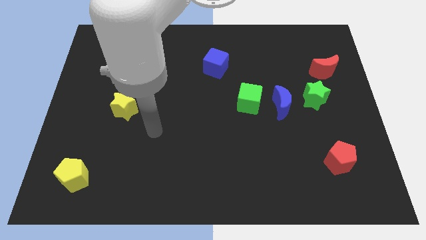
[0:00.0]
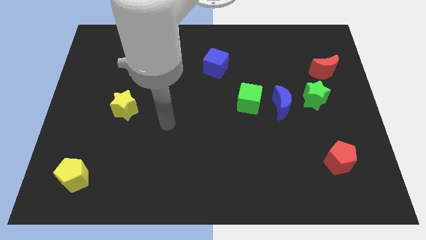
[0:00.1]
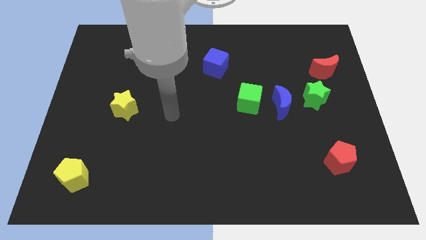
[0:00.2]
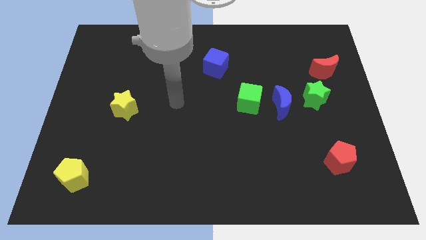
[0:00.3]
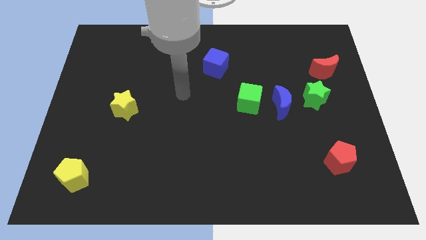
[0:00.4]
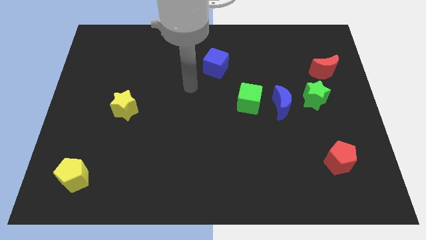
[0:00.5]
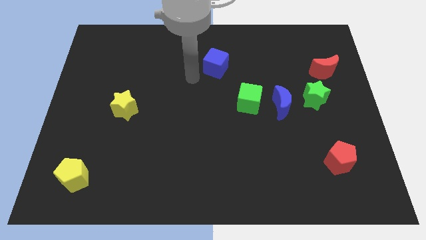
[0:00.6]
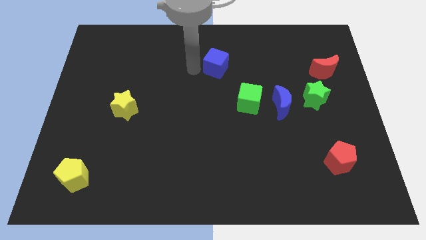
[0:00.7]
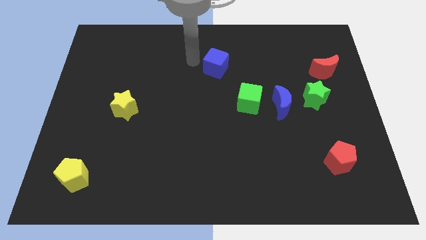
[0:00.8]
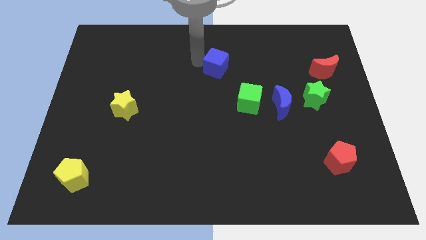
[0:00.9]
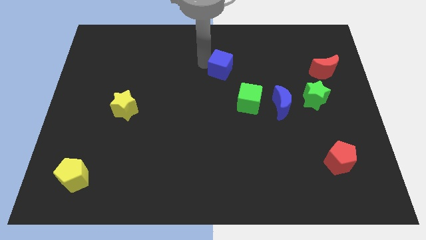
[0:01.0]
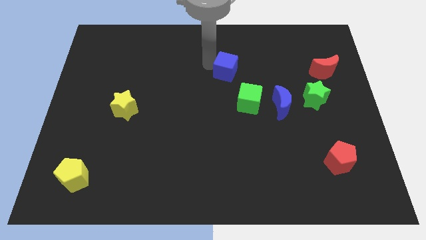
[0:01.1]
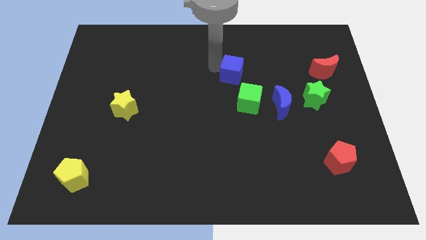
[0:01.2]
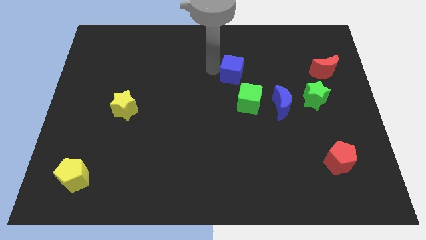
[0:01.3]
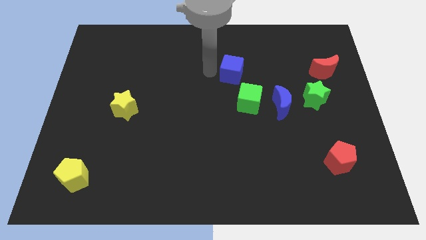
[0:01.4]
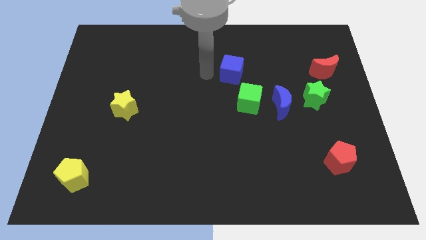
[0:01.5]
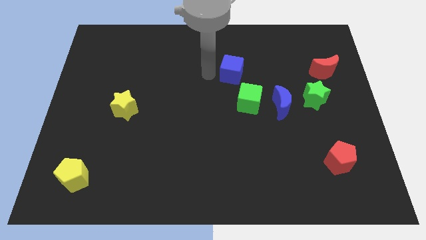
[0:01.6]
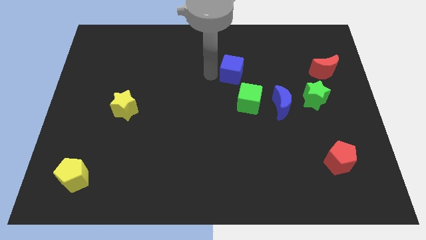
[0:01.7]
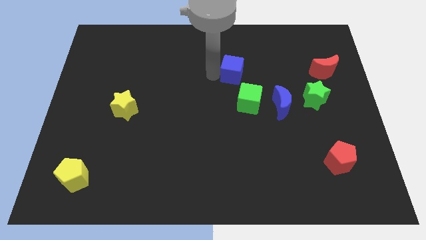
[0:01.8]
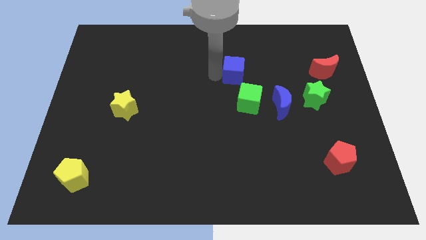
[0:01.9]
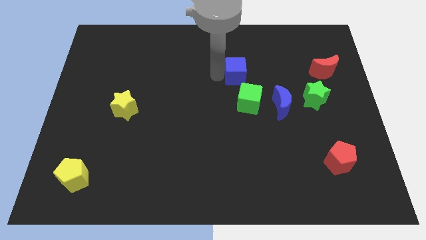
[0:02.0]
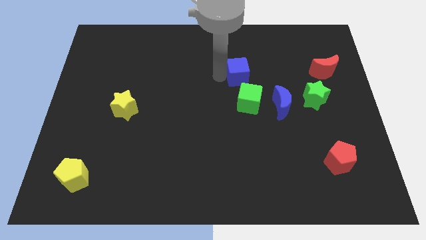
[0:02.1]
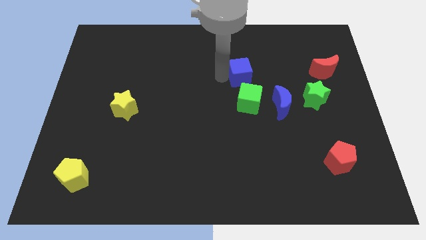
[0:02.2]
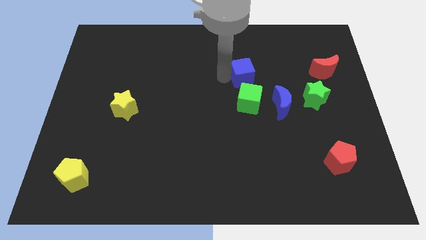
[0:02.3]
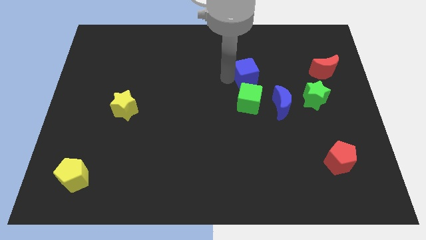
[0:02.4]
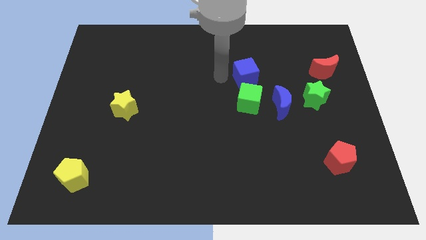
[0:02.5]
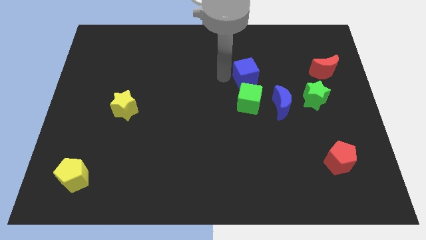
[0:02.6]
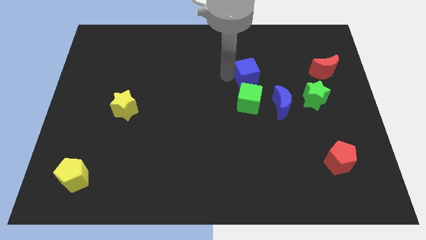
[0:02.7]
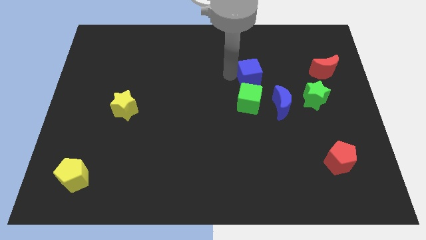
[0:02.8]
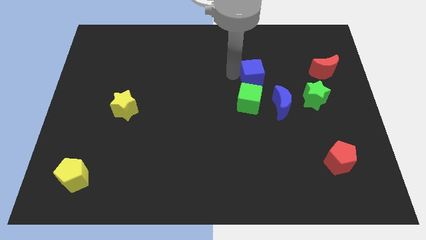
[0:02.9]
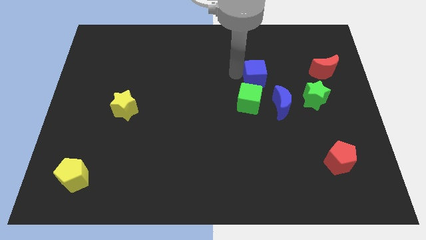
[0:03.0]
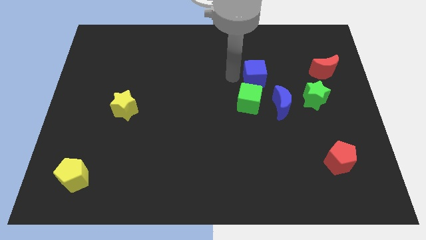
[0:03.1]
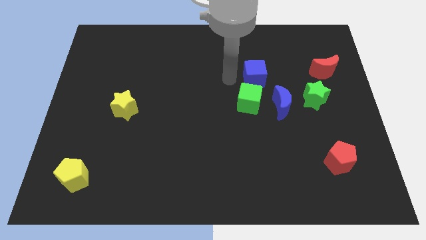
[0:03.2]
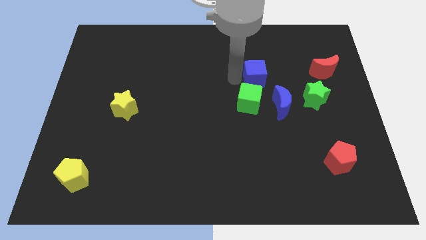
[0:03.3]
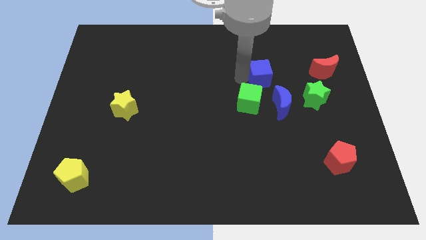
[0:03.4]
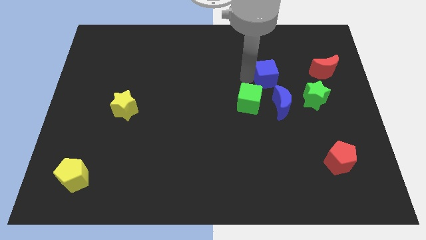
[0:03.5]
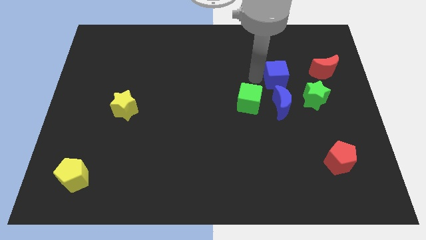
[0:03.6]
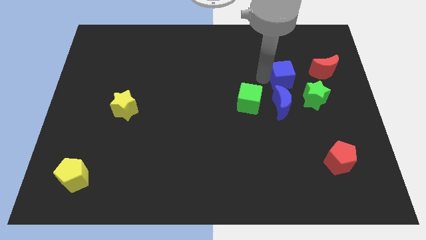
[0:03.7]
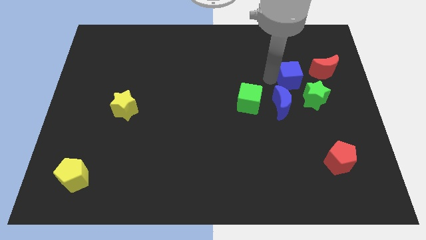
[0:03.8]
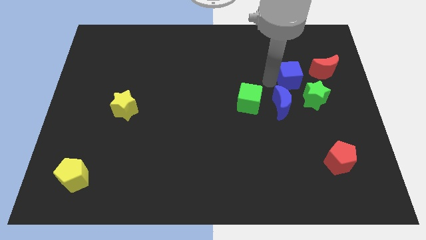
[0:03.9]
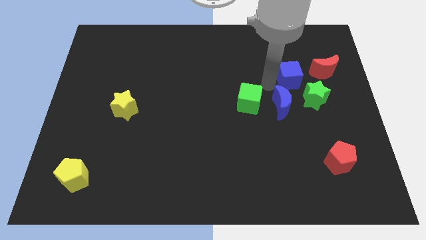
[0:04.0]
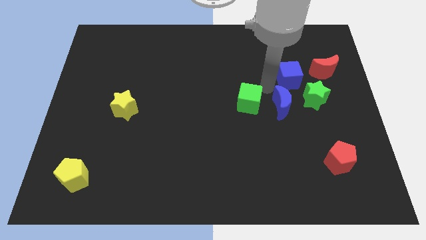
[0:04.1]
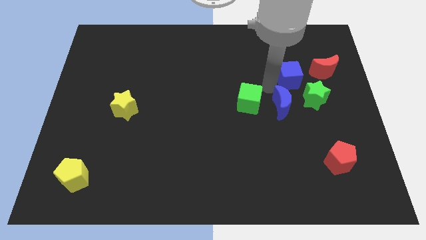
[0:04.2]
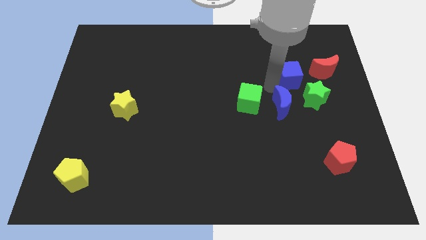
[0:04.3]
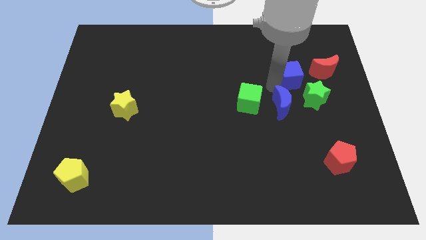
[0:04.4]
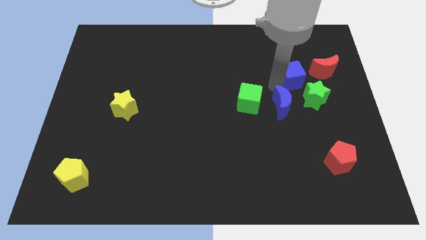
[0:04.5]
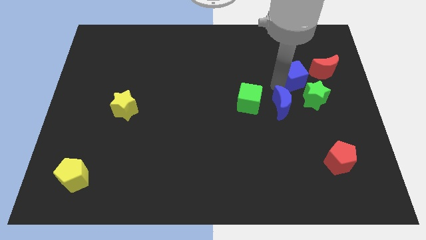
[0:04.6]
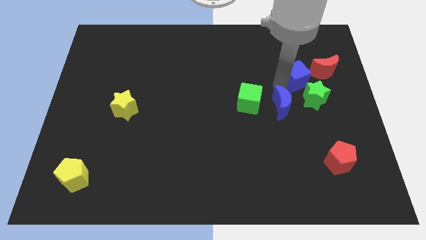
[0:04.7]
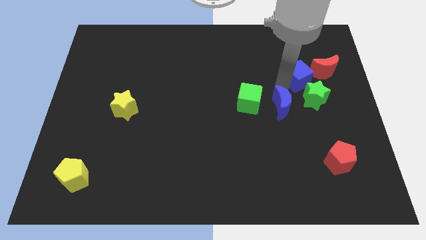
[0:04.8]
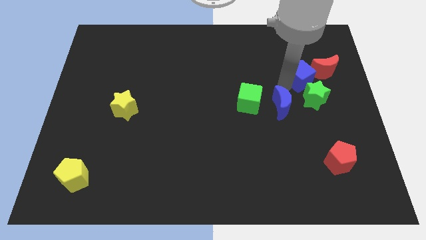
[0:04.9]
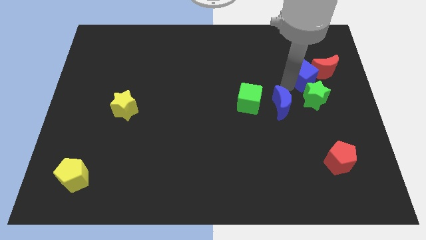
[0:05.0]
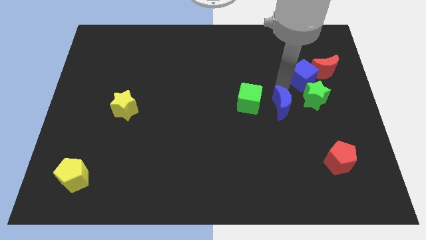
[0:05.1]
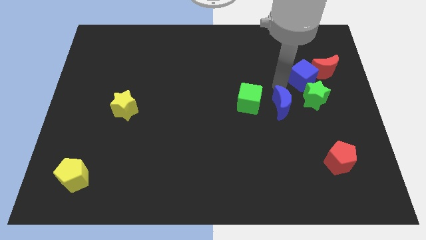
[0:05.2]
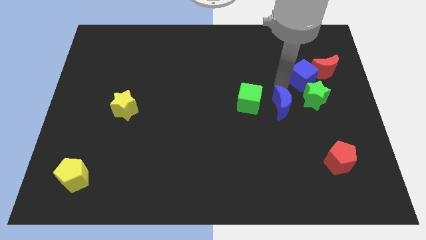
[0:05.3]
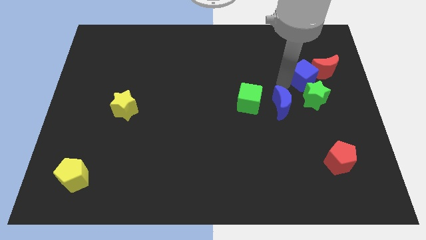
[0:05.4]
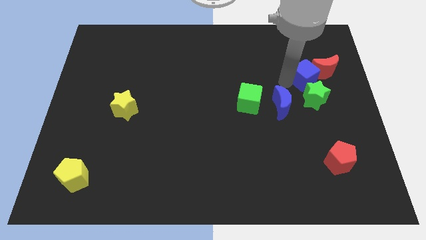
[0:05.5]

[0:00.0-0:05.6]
put the blue cube close to the red moon

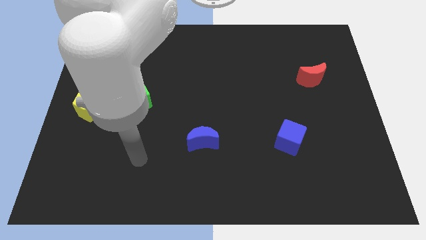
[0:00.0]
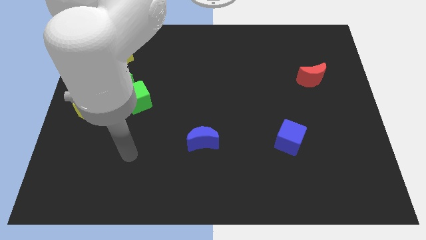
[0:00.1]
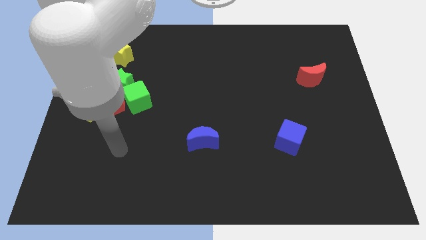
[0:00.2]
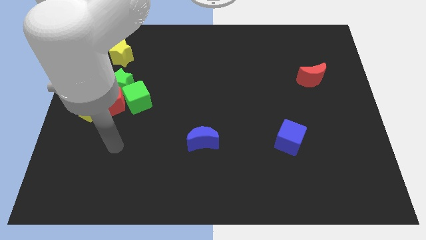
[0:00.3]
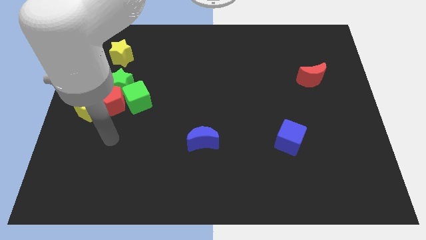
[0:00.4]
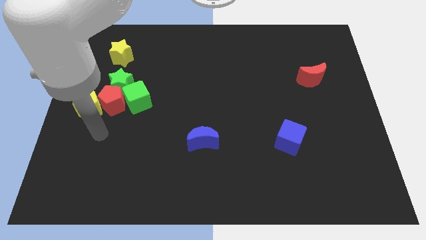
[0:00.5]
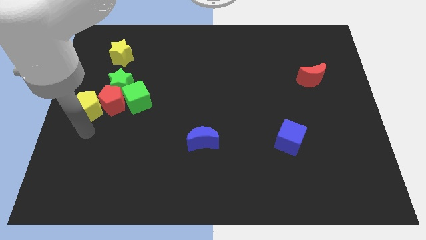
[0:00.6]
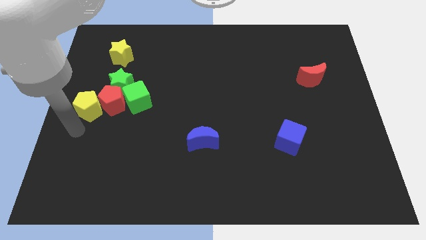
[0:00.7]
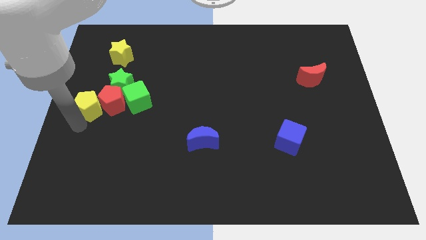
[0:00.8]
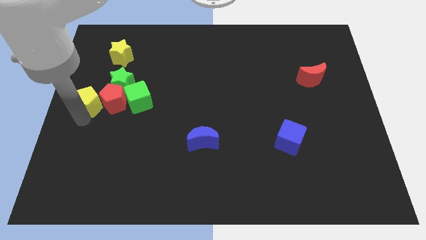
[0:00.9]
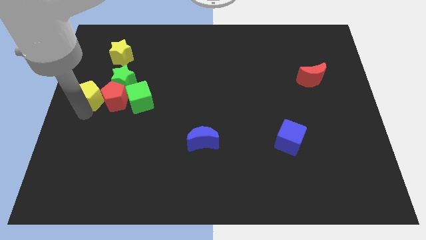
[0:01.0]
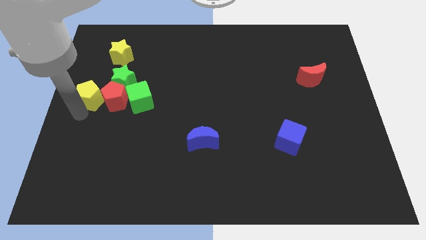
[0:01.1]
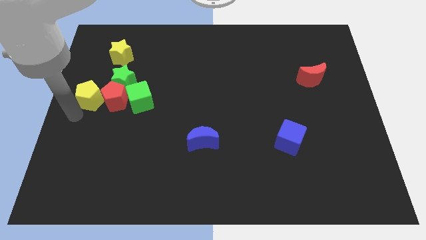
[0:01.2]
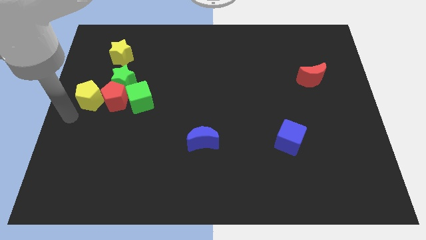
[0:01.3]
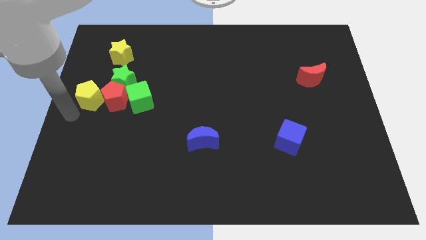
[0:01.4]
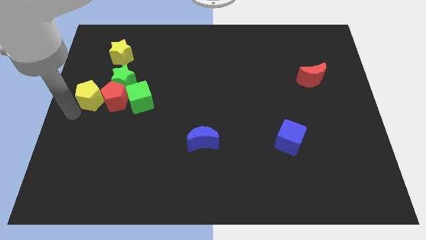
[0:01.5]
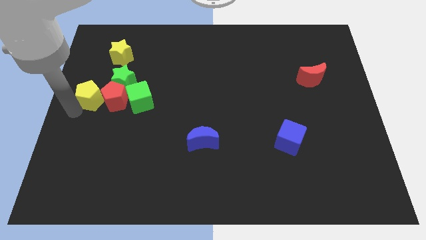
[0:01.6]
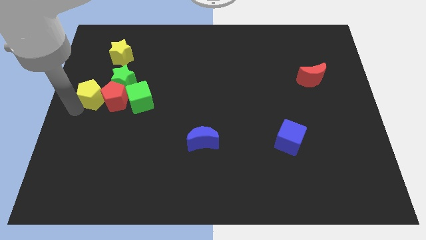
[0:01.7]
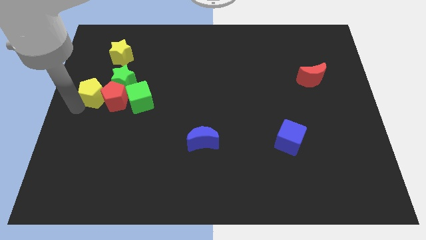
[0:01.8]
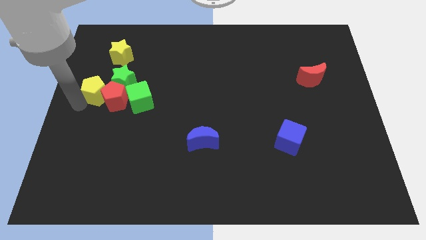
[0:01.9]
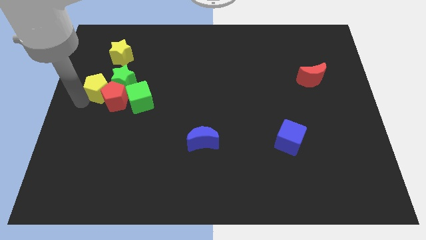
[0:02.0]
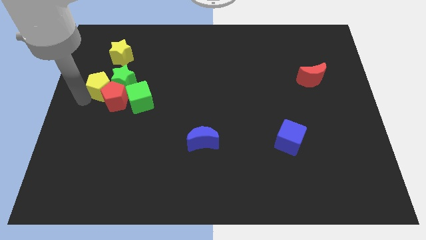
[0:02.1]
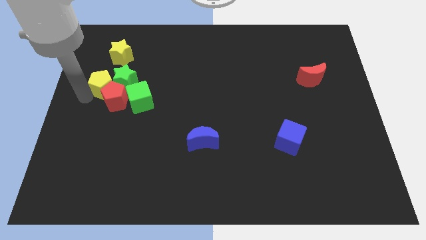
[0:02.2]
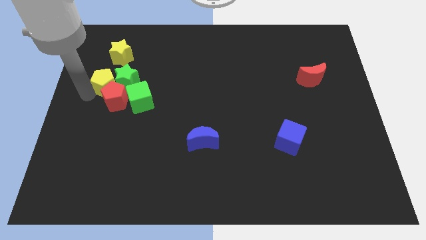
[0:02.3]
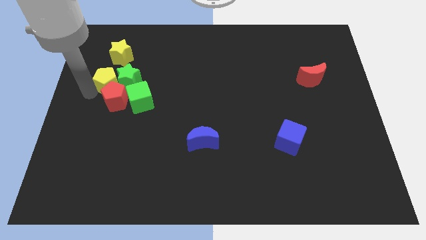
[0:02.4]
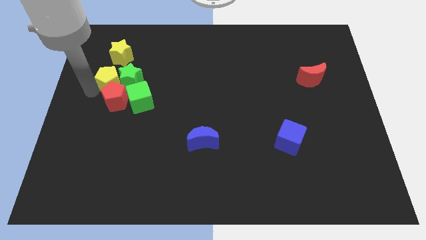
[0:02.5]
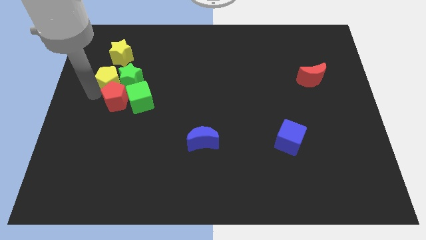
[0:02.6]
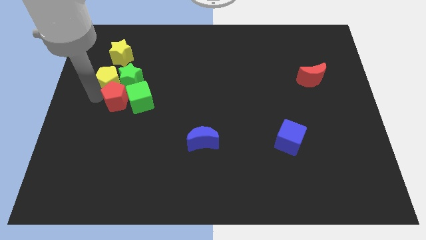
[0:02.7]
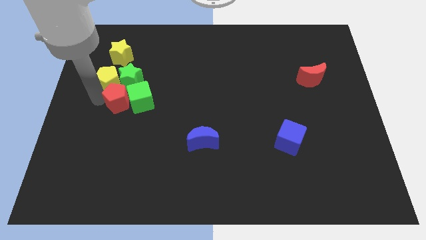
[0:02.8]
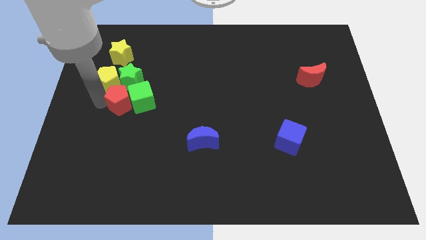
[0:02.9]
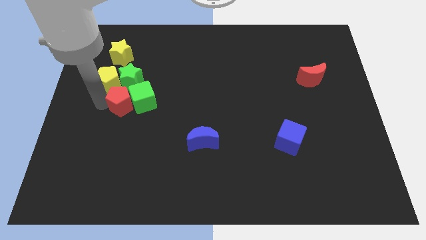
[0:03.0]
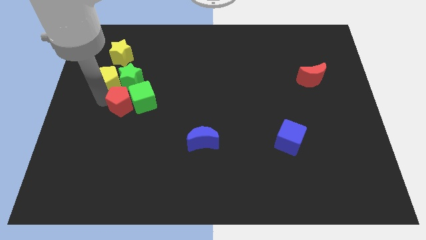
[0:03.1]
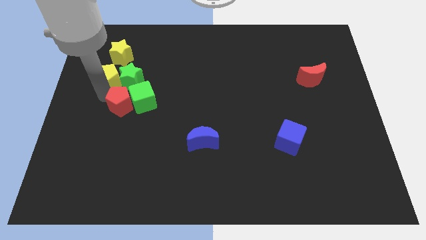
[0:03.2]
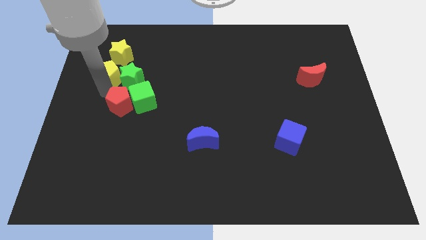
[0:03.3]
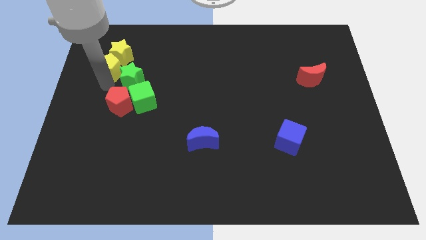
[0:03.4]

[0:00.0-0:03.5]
push the yellow pentagon towards the yellow star
